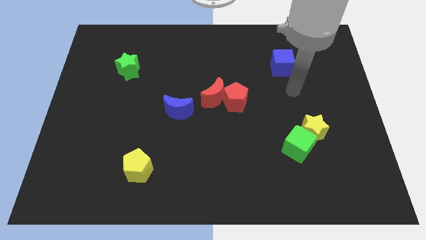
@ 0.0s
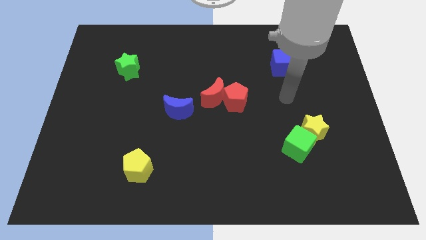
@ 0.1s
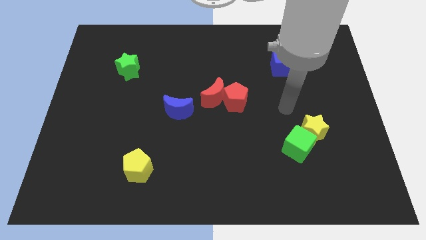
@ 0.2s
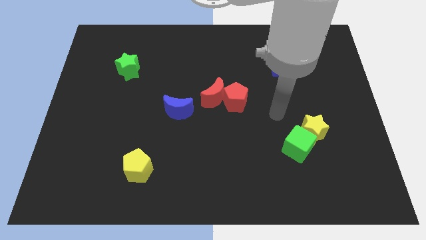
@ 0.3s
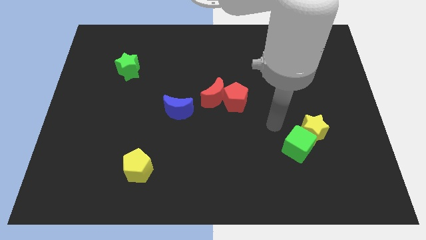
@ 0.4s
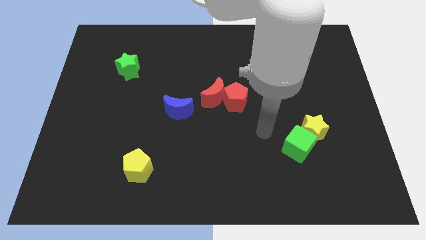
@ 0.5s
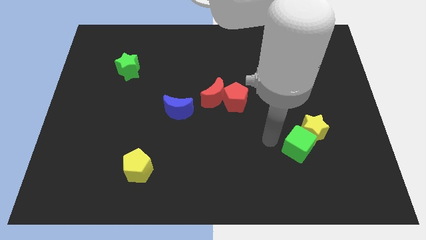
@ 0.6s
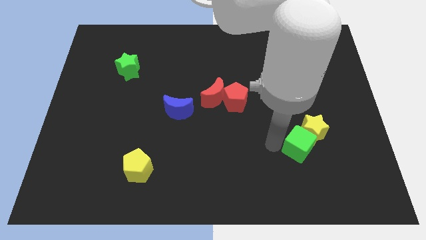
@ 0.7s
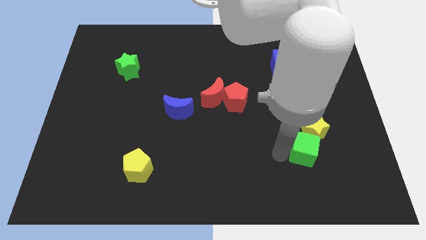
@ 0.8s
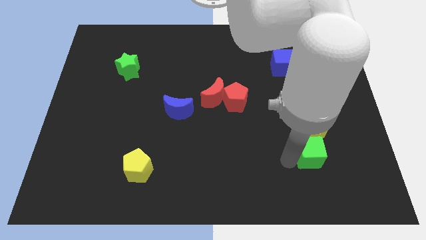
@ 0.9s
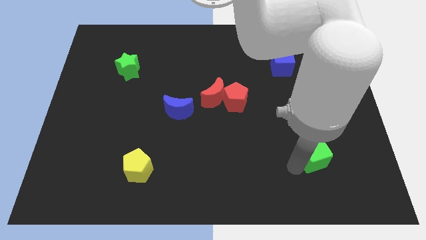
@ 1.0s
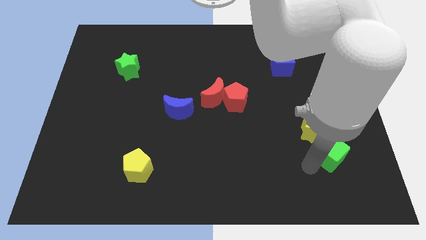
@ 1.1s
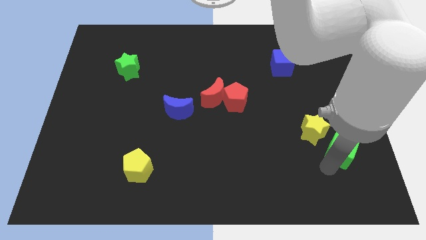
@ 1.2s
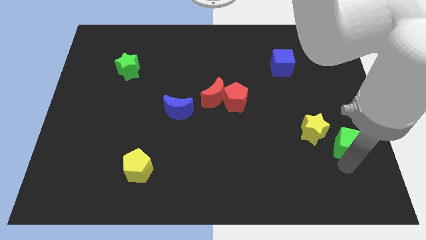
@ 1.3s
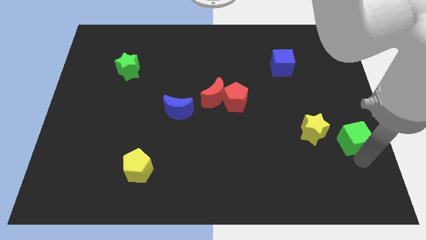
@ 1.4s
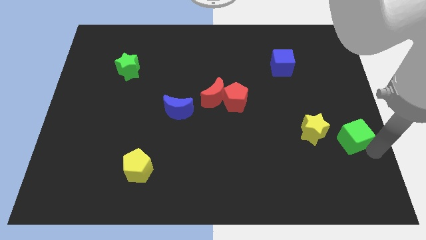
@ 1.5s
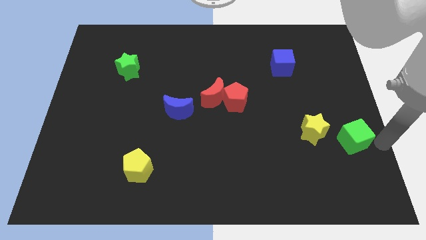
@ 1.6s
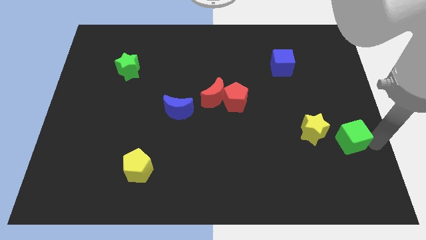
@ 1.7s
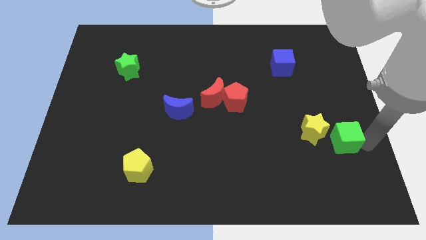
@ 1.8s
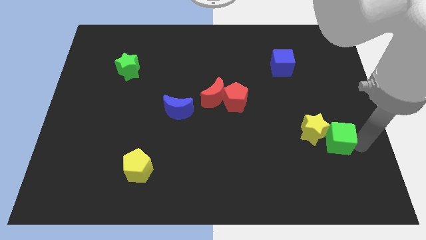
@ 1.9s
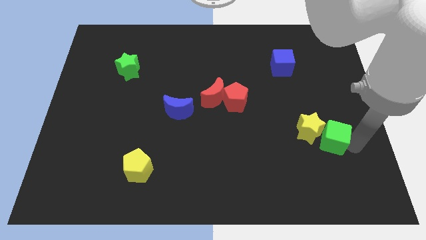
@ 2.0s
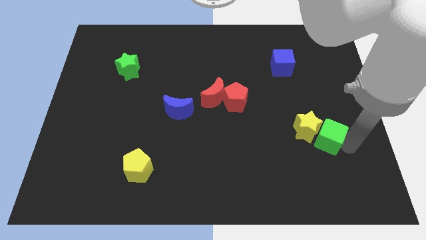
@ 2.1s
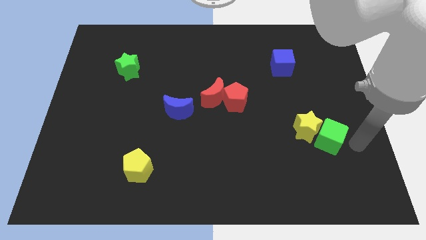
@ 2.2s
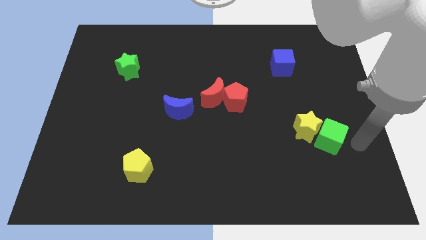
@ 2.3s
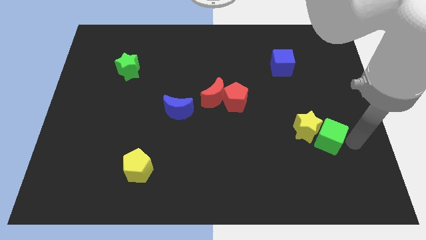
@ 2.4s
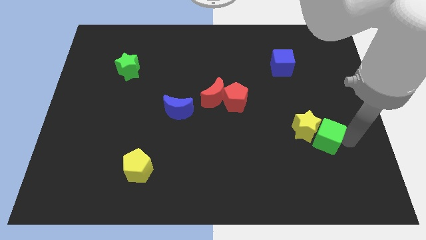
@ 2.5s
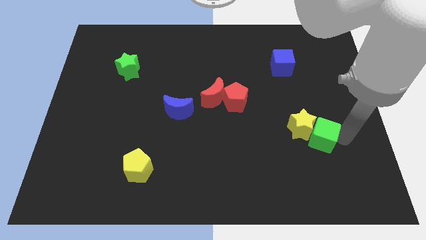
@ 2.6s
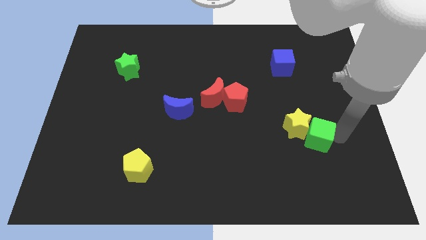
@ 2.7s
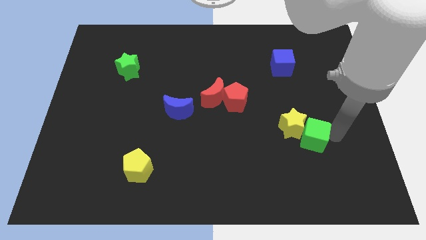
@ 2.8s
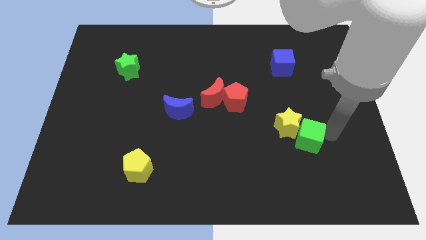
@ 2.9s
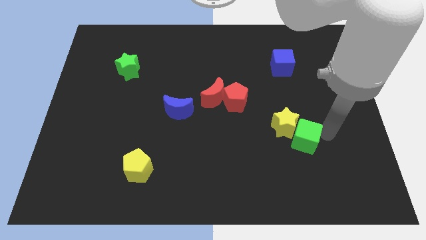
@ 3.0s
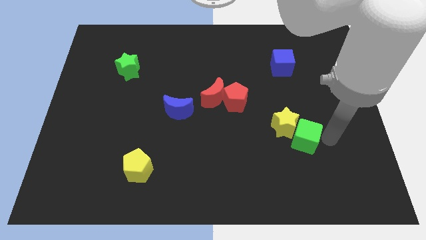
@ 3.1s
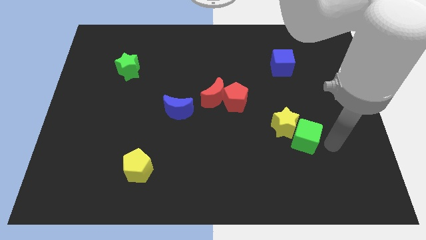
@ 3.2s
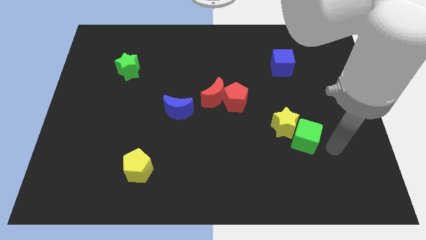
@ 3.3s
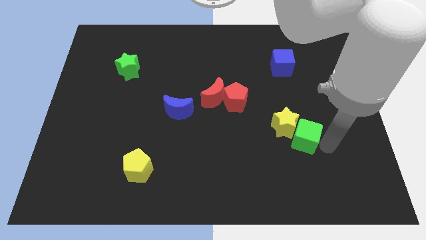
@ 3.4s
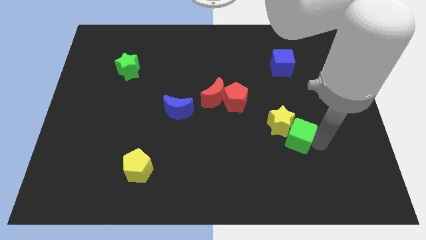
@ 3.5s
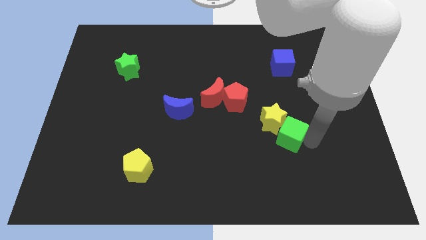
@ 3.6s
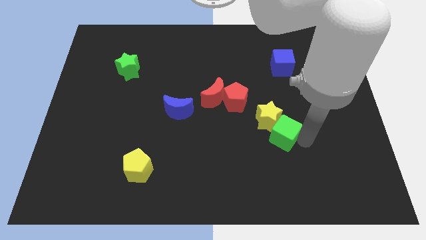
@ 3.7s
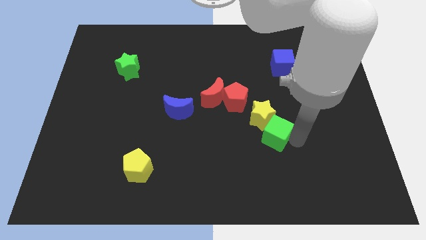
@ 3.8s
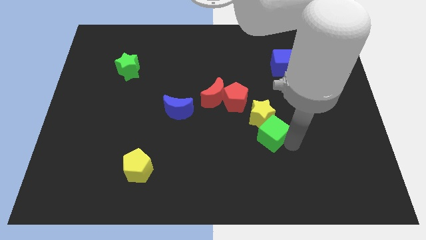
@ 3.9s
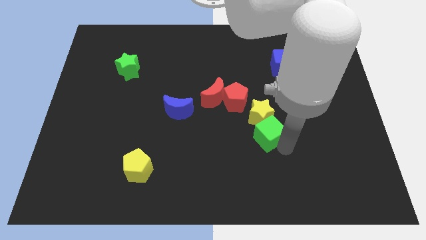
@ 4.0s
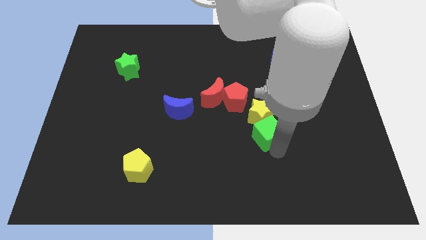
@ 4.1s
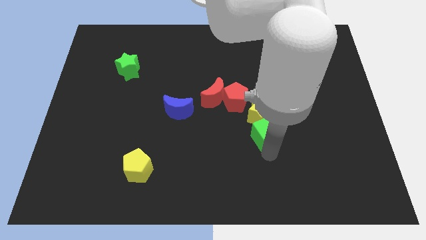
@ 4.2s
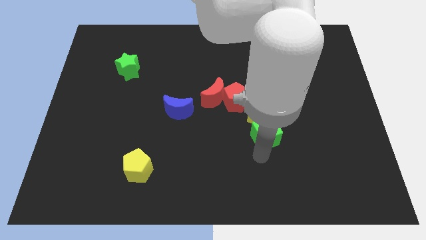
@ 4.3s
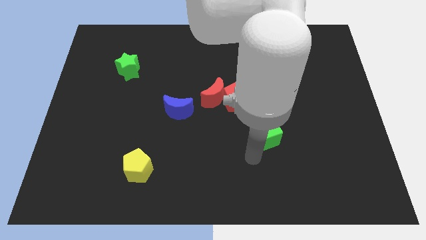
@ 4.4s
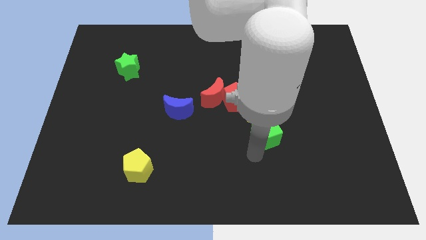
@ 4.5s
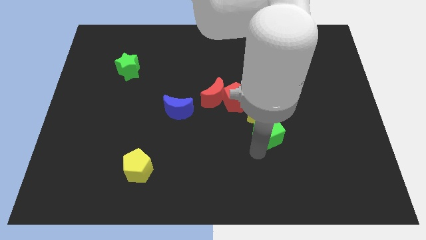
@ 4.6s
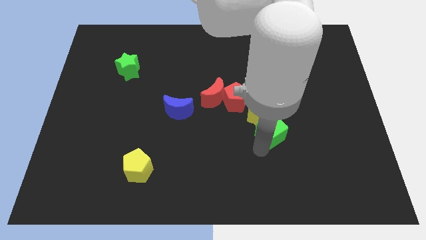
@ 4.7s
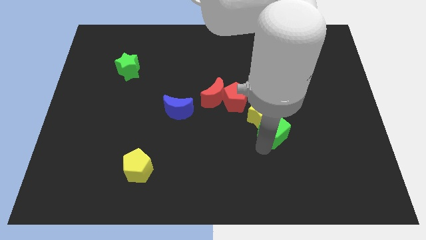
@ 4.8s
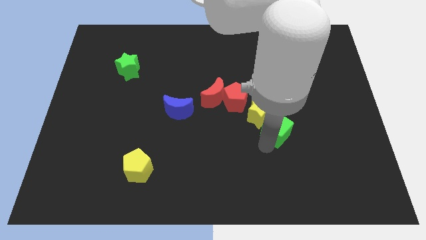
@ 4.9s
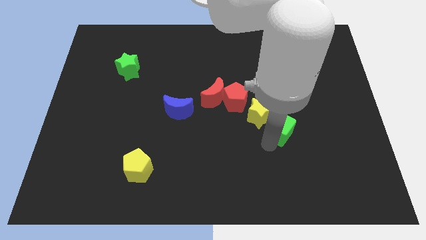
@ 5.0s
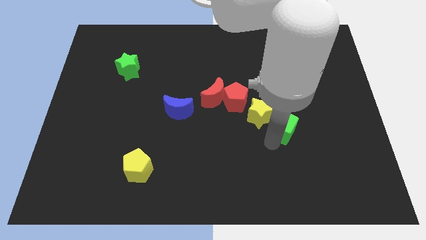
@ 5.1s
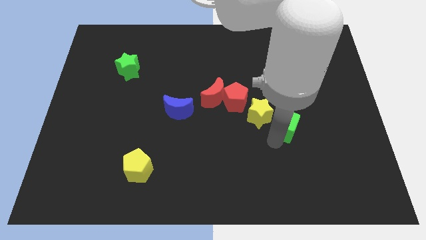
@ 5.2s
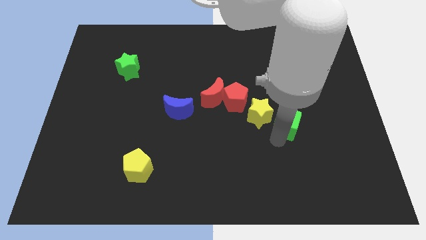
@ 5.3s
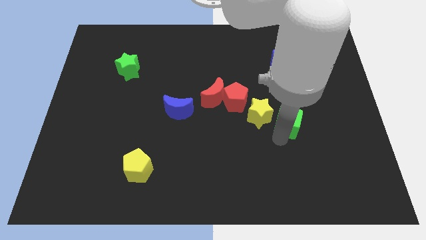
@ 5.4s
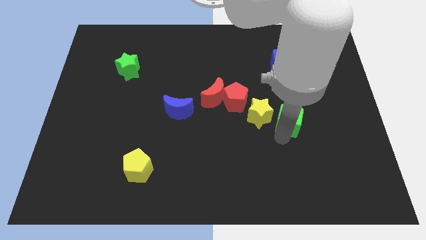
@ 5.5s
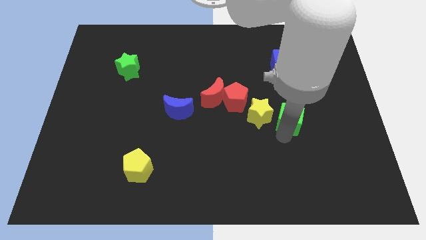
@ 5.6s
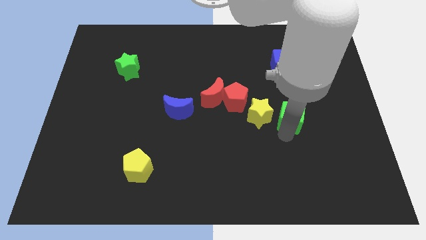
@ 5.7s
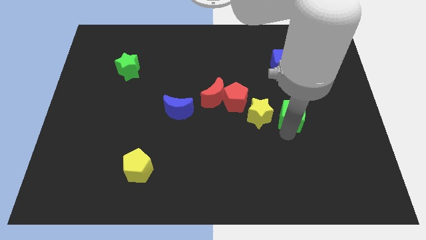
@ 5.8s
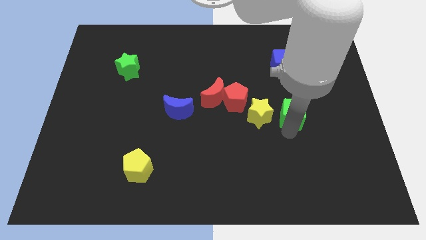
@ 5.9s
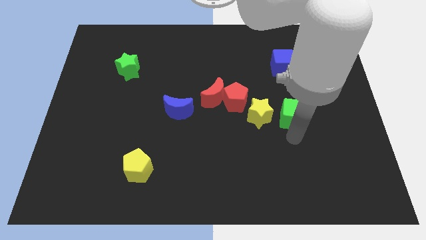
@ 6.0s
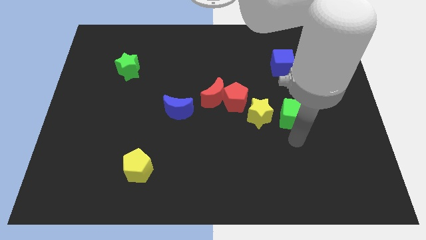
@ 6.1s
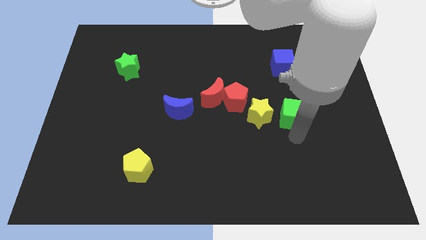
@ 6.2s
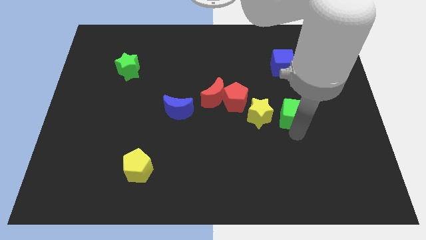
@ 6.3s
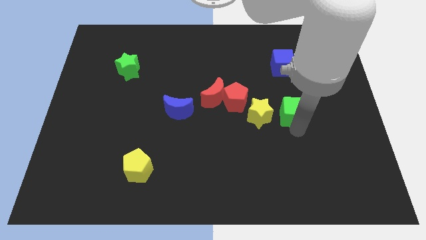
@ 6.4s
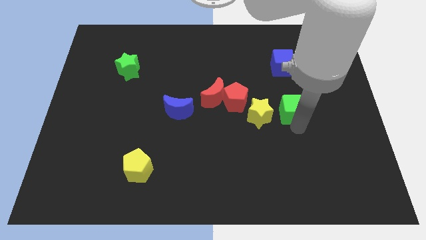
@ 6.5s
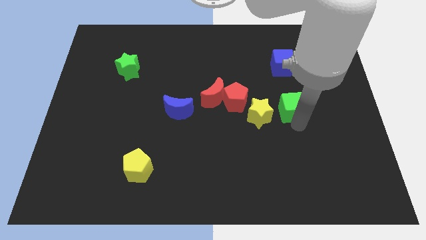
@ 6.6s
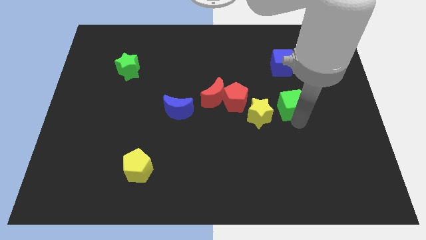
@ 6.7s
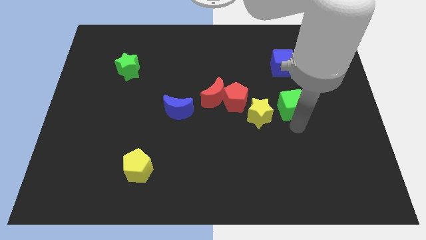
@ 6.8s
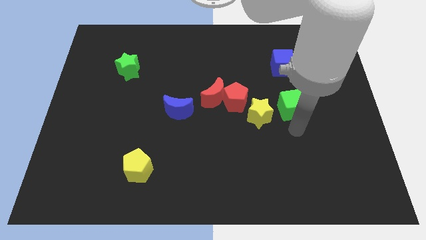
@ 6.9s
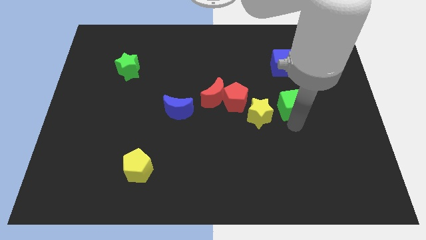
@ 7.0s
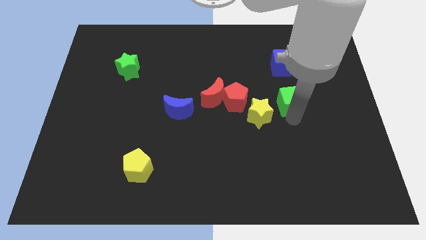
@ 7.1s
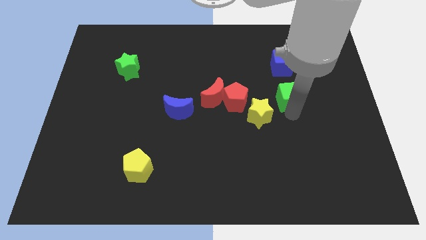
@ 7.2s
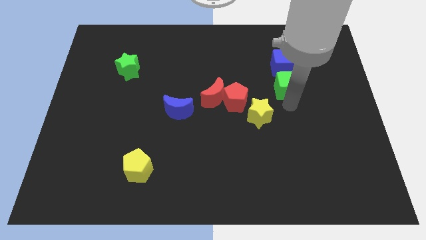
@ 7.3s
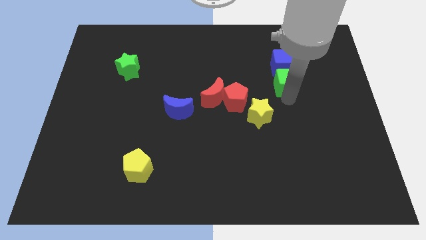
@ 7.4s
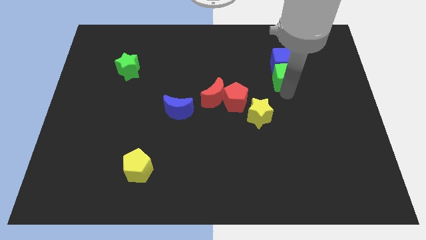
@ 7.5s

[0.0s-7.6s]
put the green cube close to the blue cube
